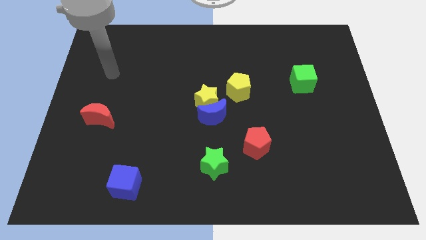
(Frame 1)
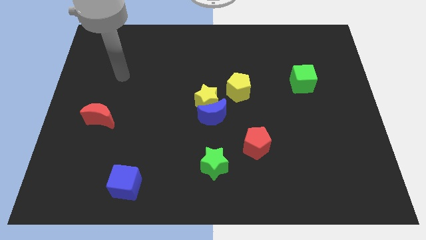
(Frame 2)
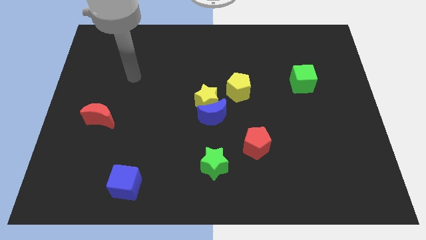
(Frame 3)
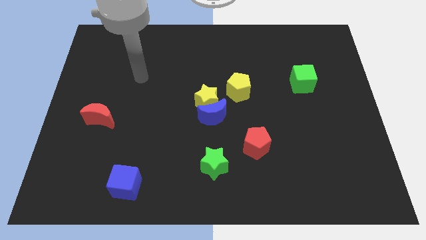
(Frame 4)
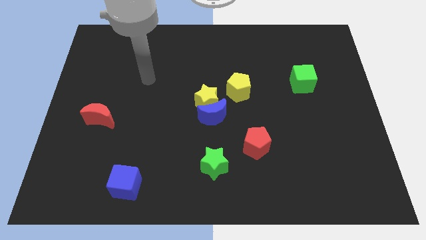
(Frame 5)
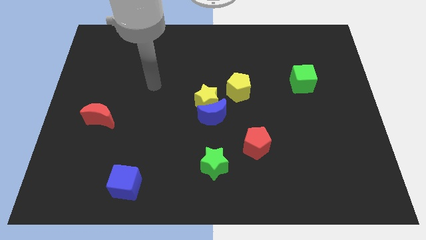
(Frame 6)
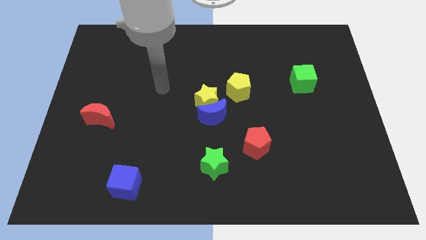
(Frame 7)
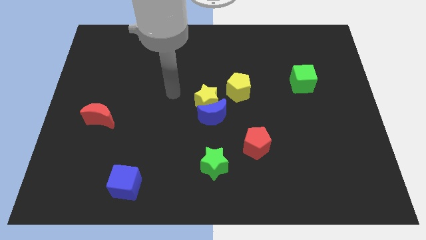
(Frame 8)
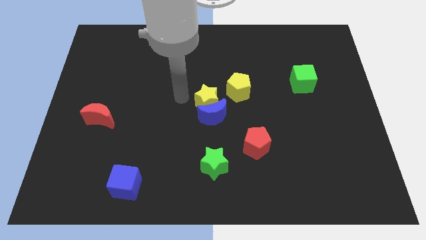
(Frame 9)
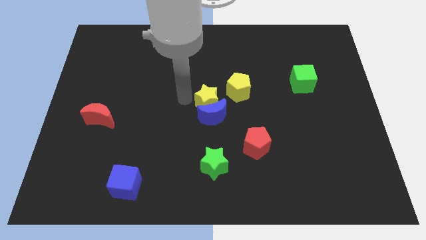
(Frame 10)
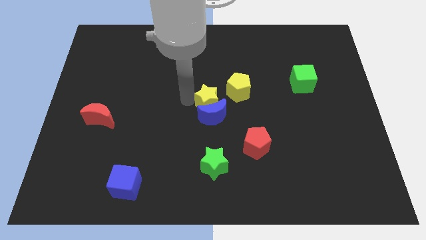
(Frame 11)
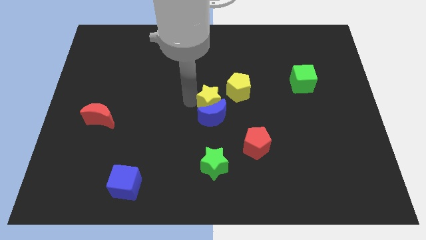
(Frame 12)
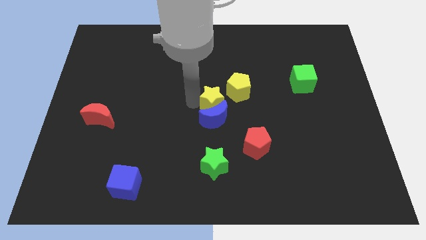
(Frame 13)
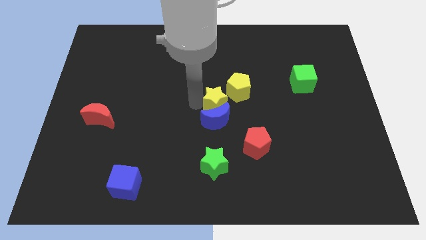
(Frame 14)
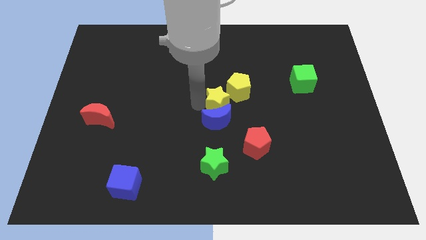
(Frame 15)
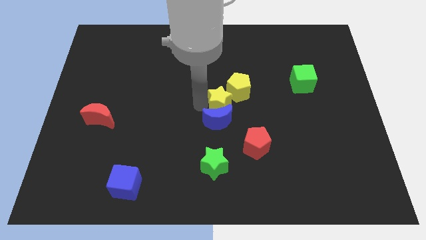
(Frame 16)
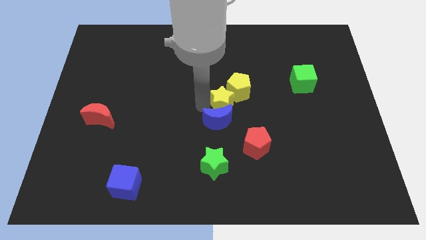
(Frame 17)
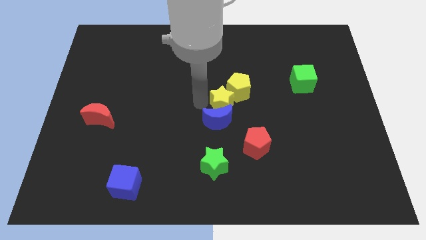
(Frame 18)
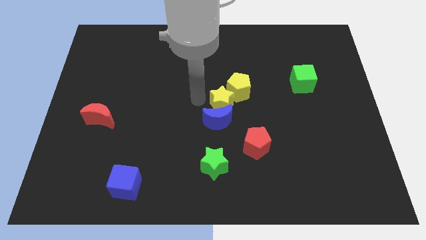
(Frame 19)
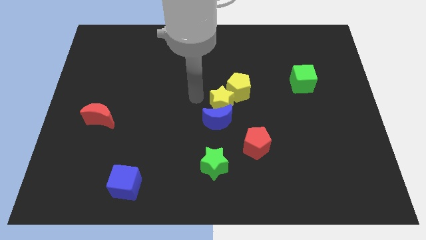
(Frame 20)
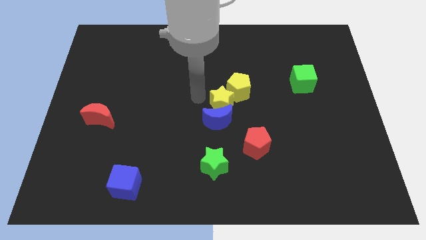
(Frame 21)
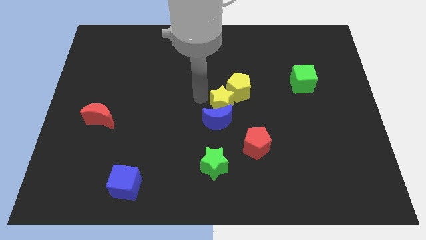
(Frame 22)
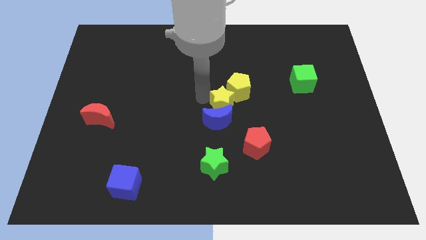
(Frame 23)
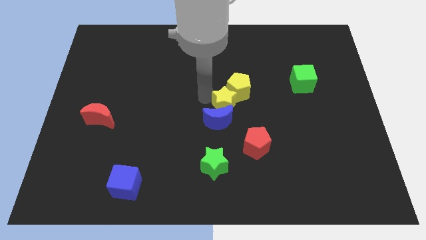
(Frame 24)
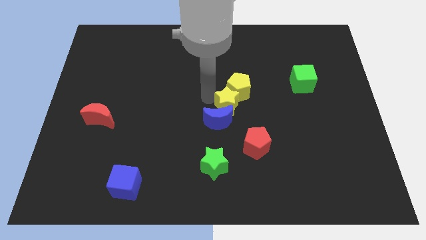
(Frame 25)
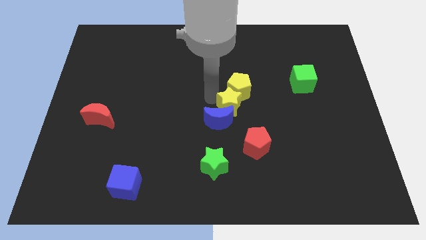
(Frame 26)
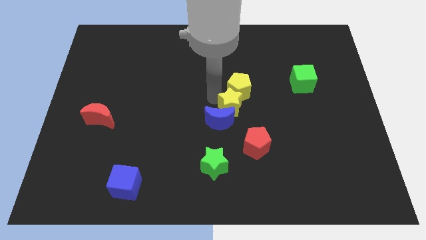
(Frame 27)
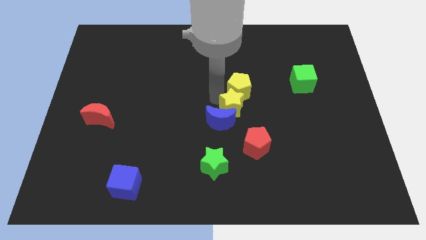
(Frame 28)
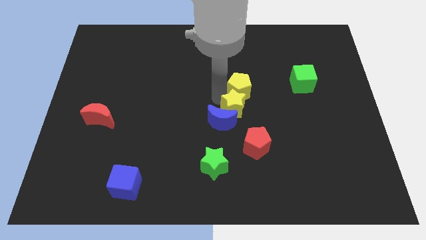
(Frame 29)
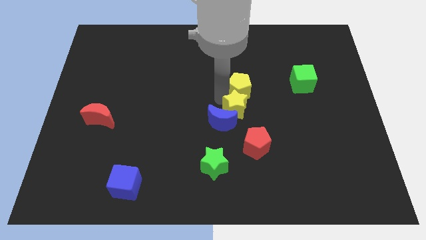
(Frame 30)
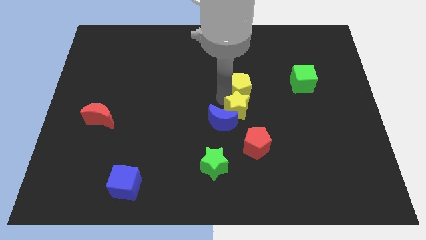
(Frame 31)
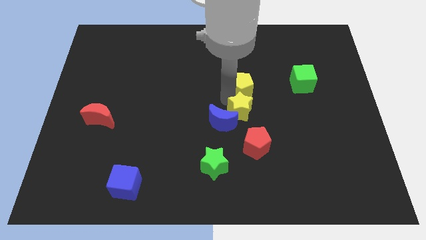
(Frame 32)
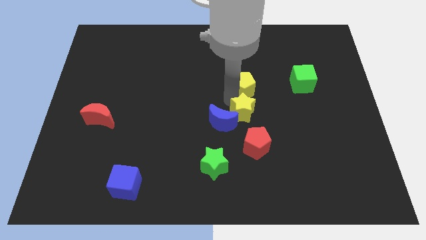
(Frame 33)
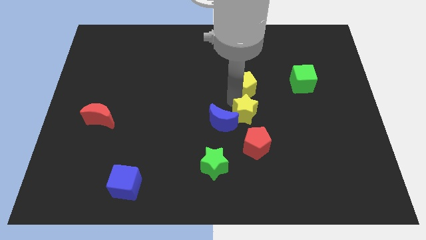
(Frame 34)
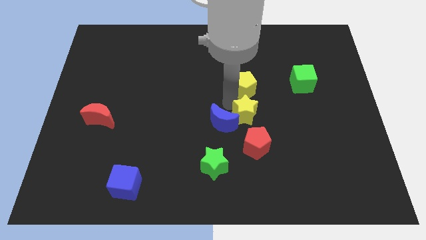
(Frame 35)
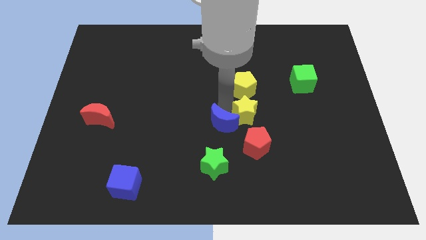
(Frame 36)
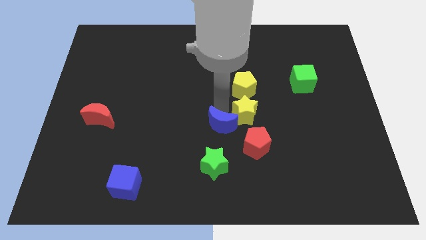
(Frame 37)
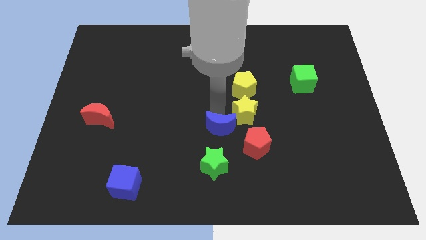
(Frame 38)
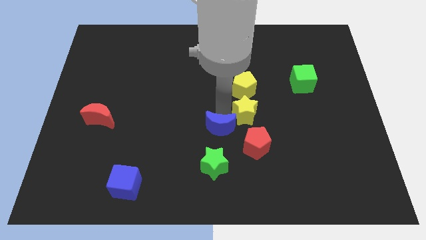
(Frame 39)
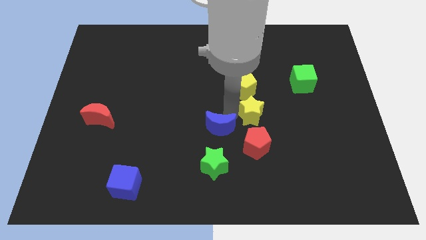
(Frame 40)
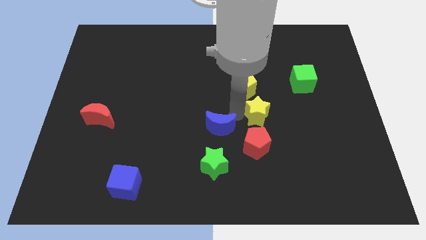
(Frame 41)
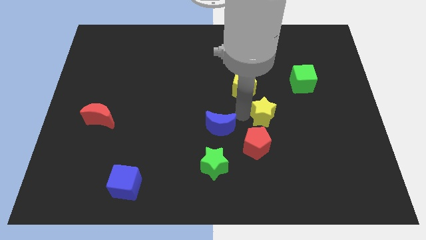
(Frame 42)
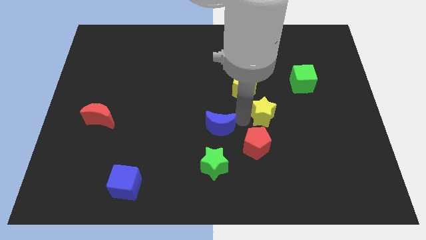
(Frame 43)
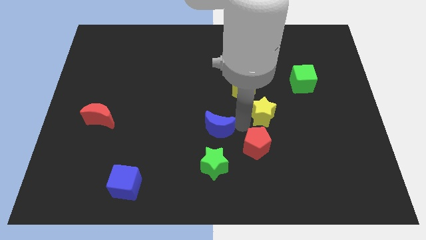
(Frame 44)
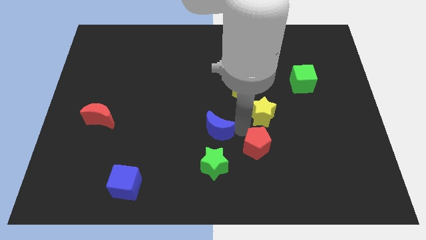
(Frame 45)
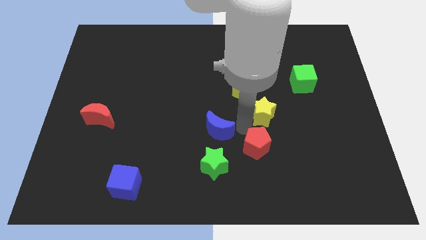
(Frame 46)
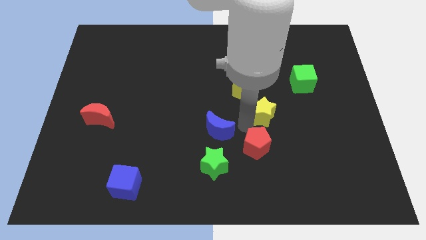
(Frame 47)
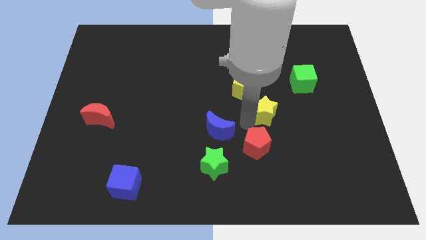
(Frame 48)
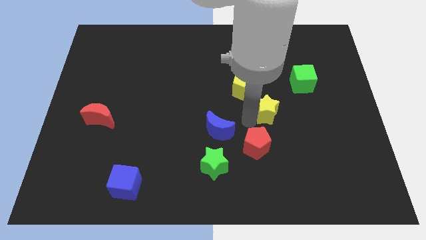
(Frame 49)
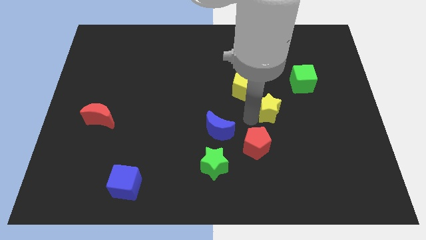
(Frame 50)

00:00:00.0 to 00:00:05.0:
move the yellow star to the bottom left side of the green cube

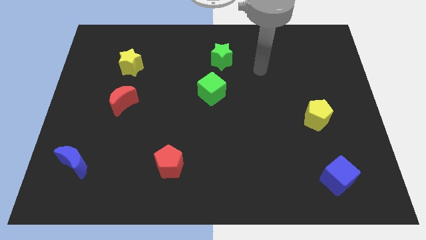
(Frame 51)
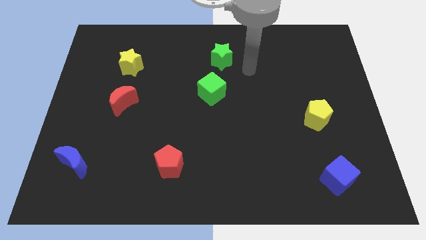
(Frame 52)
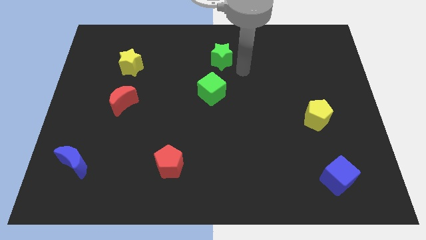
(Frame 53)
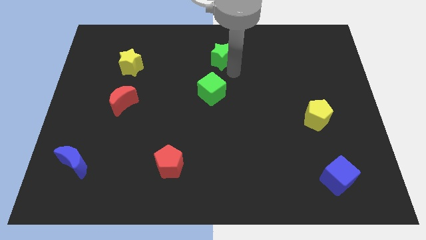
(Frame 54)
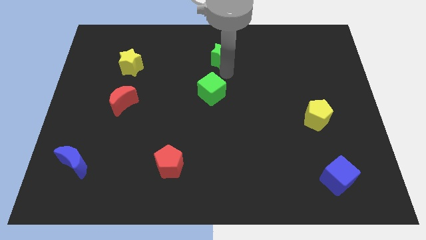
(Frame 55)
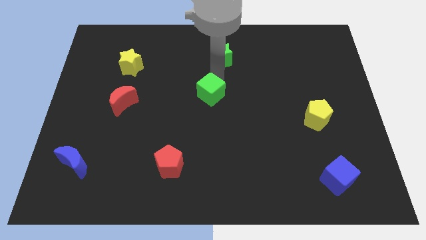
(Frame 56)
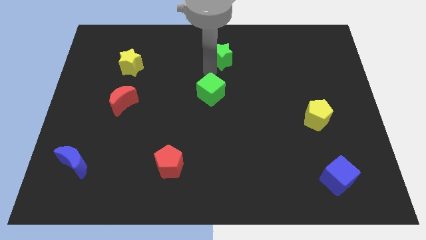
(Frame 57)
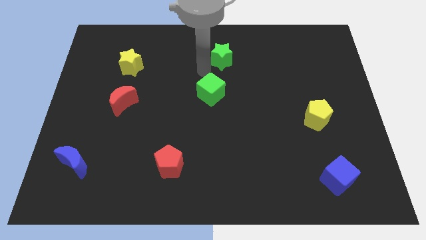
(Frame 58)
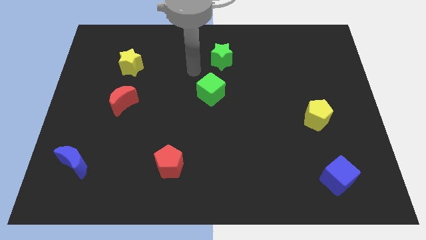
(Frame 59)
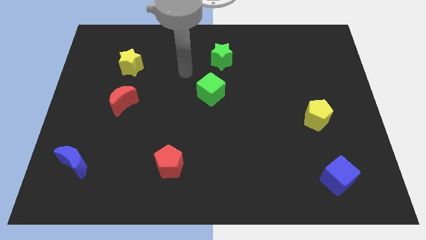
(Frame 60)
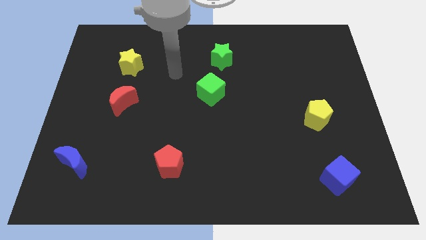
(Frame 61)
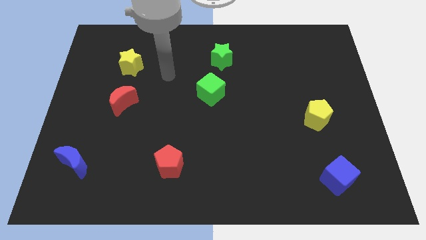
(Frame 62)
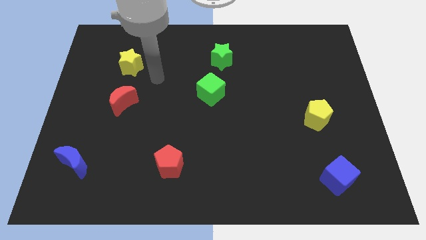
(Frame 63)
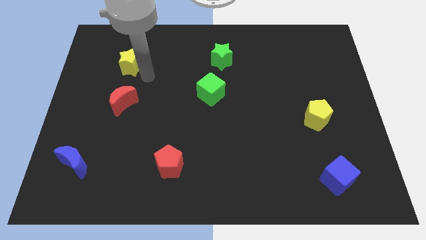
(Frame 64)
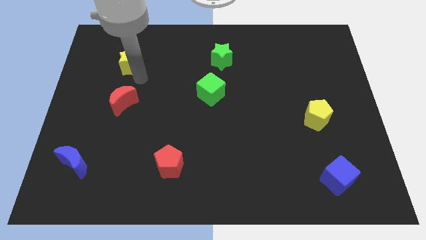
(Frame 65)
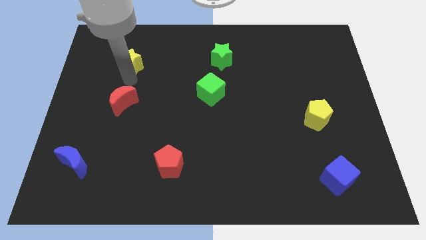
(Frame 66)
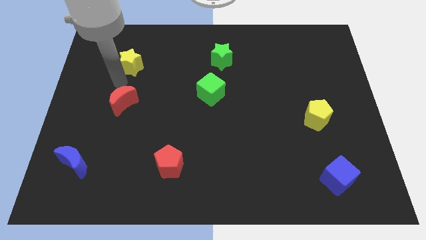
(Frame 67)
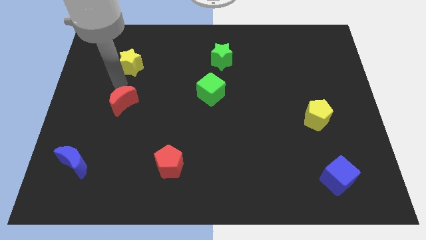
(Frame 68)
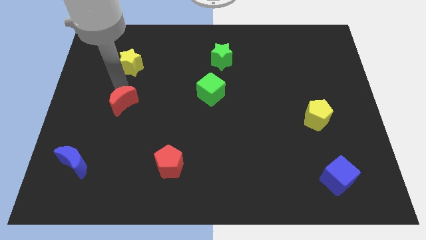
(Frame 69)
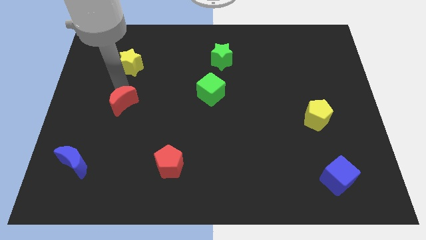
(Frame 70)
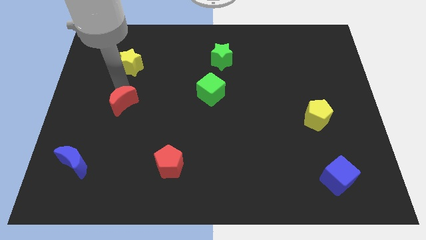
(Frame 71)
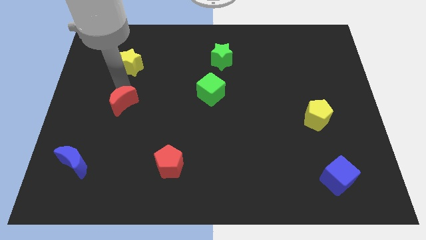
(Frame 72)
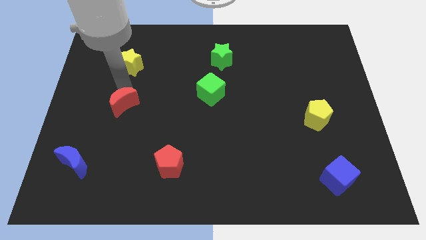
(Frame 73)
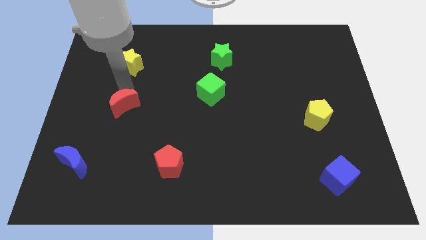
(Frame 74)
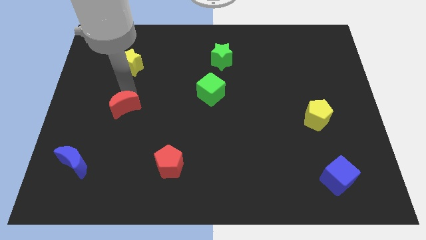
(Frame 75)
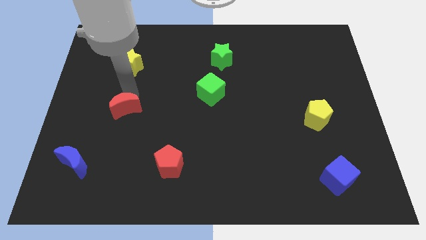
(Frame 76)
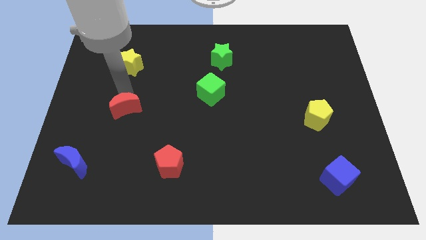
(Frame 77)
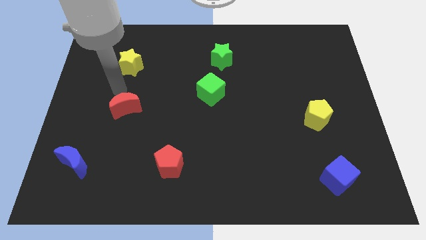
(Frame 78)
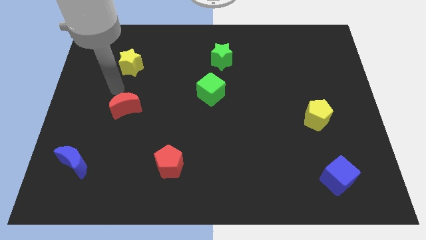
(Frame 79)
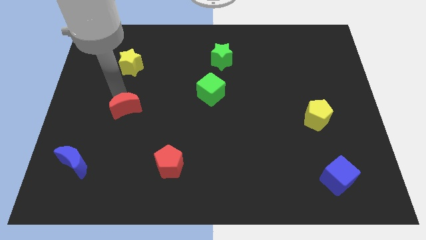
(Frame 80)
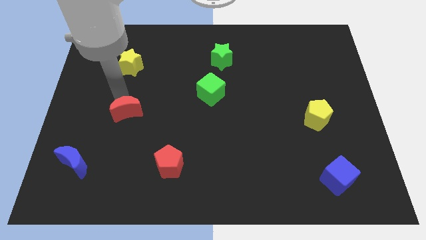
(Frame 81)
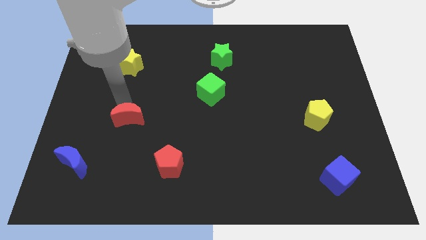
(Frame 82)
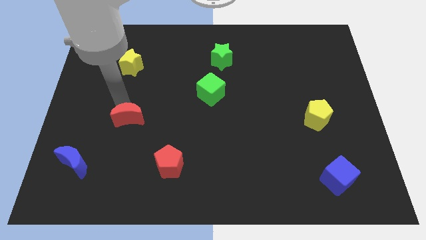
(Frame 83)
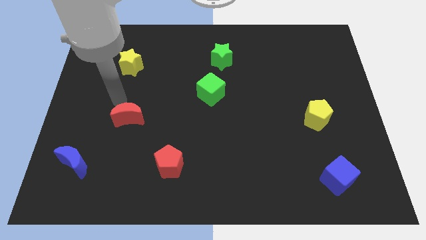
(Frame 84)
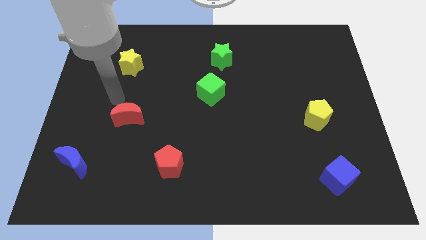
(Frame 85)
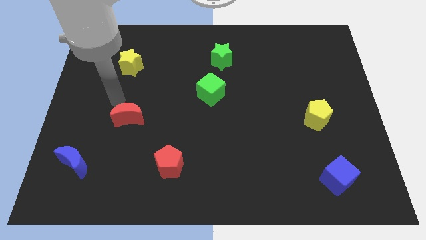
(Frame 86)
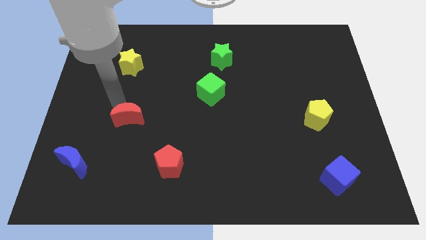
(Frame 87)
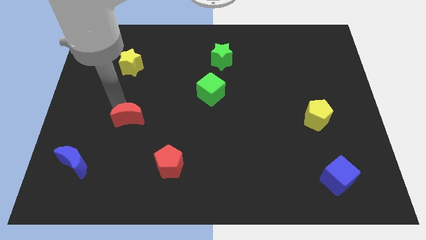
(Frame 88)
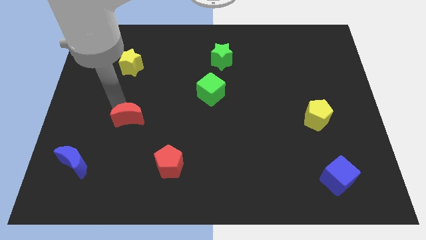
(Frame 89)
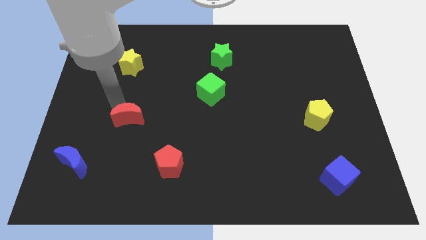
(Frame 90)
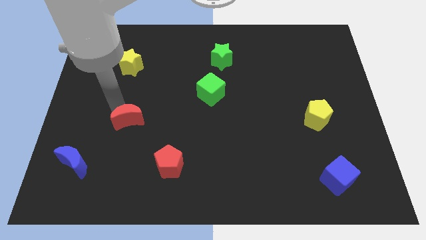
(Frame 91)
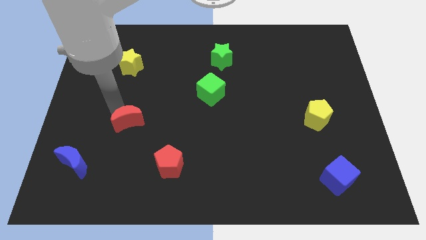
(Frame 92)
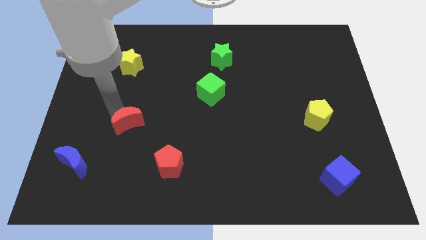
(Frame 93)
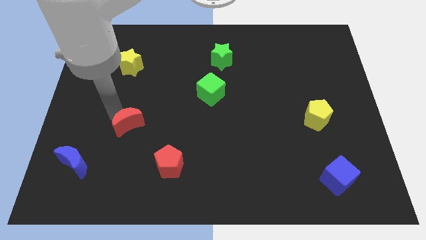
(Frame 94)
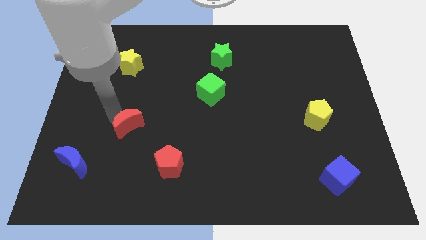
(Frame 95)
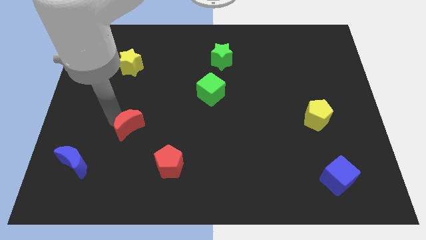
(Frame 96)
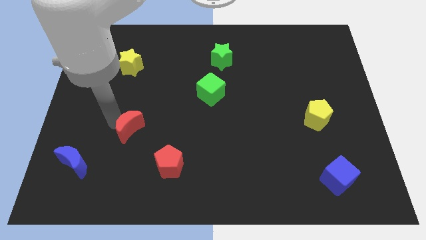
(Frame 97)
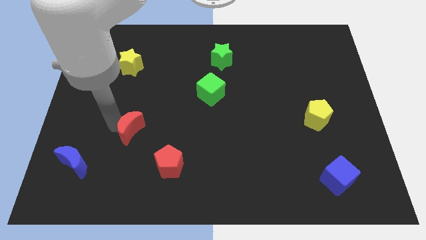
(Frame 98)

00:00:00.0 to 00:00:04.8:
put the red moon to the top left of the red pentagon
